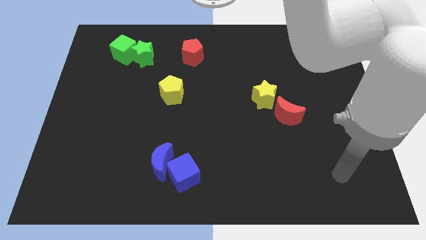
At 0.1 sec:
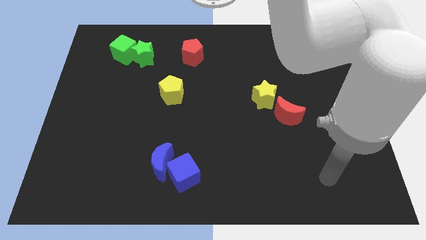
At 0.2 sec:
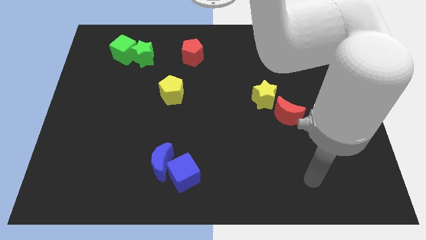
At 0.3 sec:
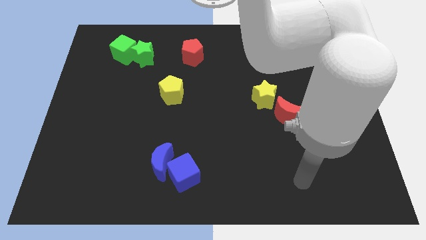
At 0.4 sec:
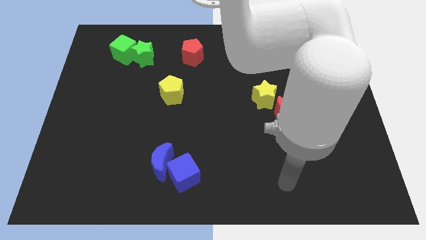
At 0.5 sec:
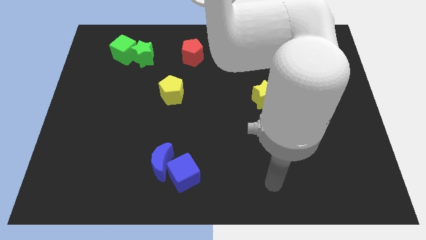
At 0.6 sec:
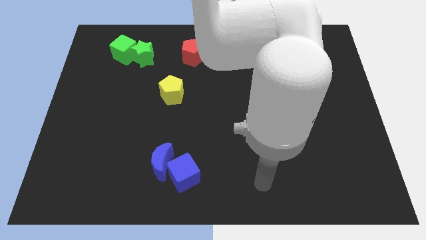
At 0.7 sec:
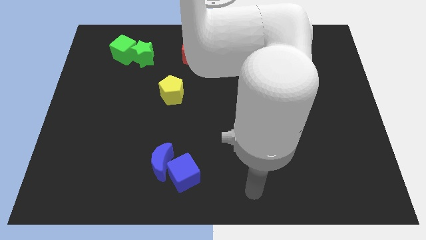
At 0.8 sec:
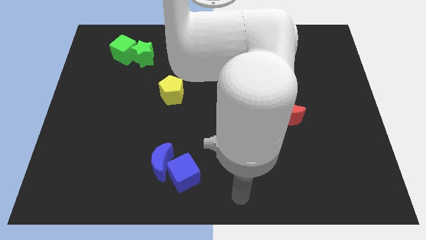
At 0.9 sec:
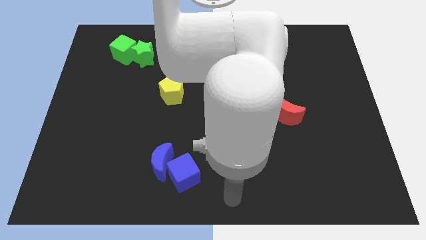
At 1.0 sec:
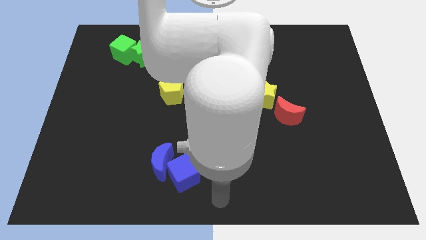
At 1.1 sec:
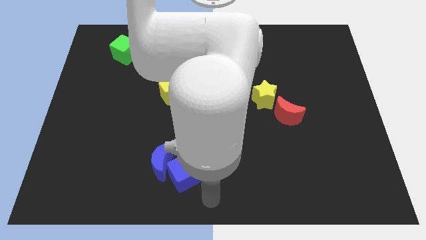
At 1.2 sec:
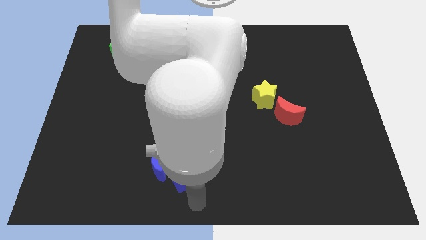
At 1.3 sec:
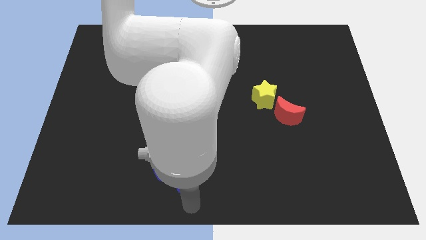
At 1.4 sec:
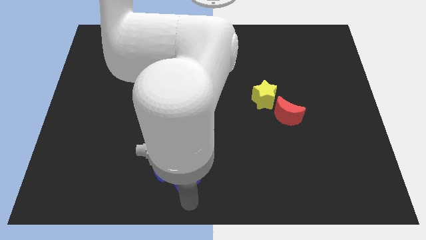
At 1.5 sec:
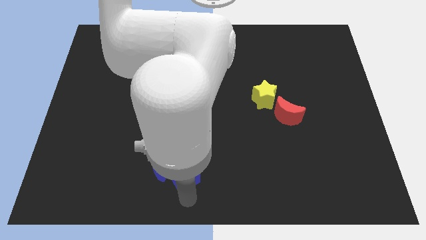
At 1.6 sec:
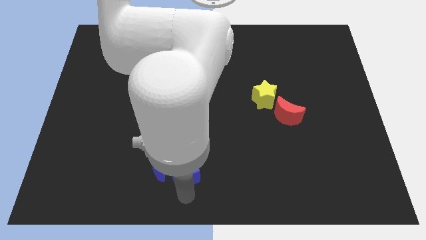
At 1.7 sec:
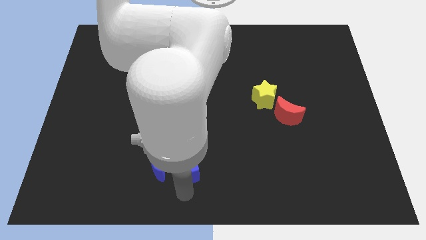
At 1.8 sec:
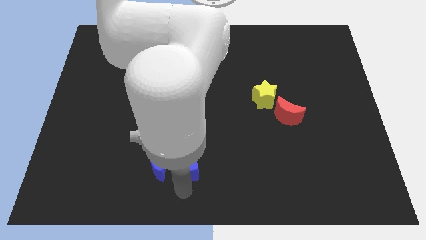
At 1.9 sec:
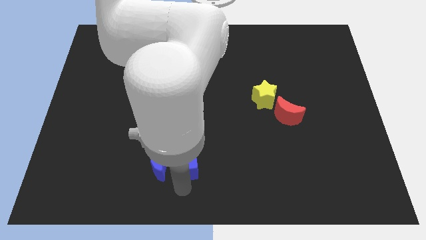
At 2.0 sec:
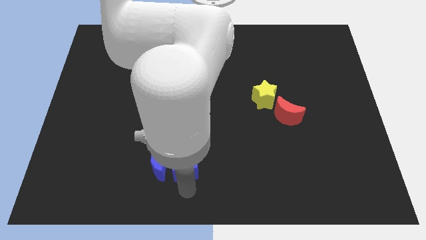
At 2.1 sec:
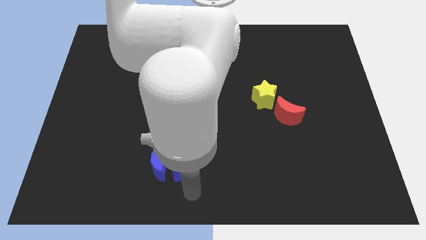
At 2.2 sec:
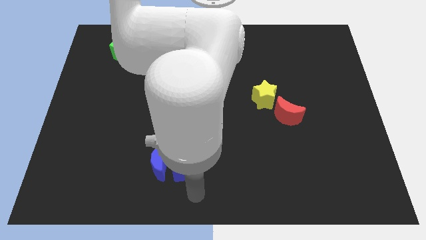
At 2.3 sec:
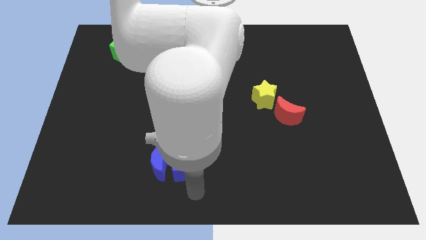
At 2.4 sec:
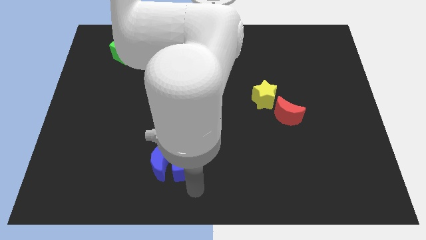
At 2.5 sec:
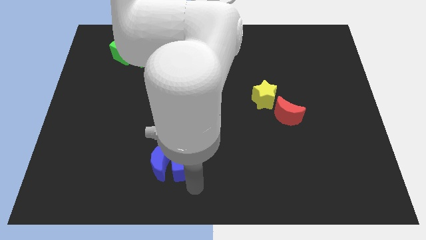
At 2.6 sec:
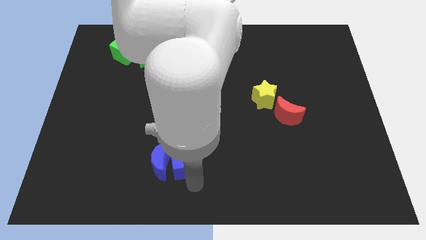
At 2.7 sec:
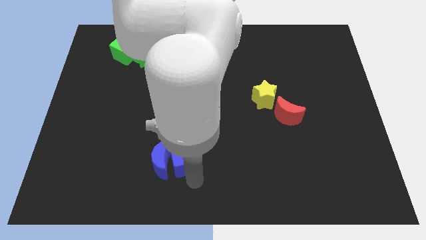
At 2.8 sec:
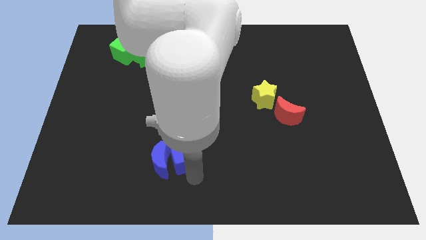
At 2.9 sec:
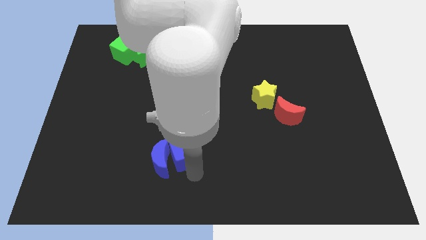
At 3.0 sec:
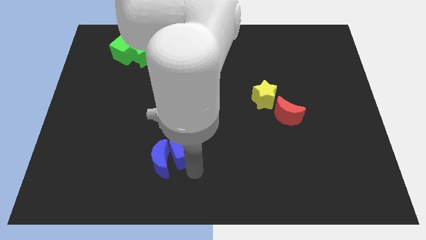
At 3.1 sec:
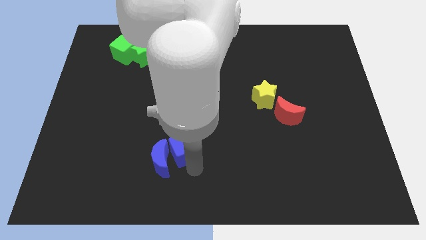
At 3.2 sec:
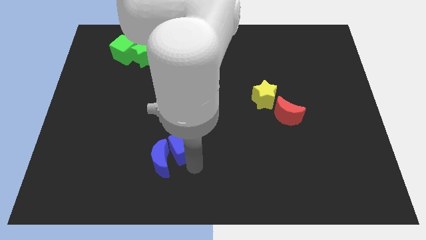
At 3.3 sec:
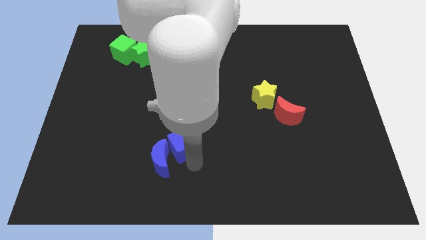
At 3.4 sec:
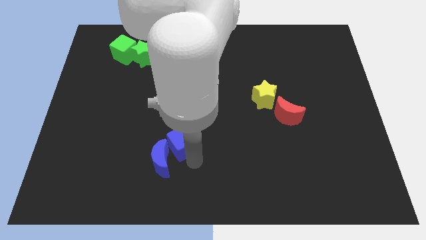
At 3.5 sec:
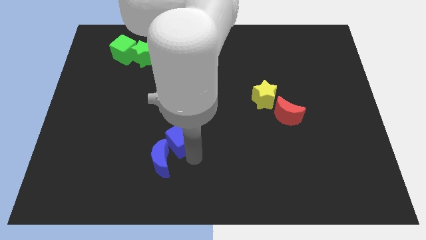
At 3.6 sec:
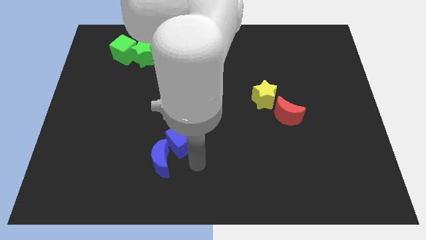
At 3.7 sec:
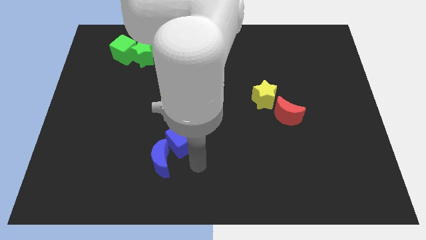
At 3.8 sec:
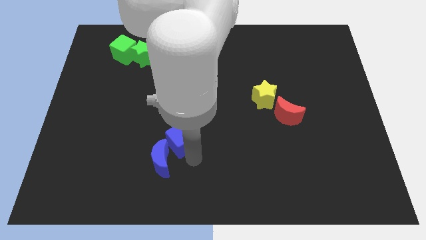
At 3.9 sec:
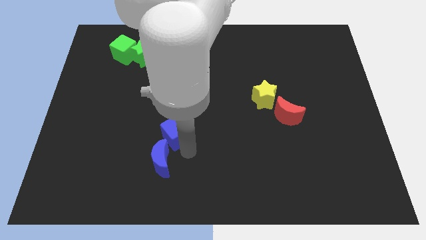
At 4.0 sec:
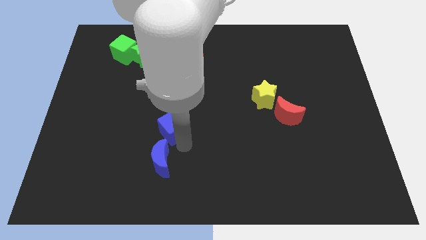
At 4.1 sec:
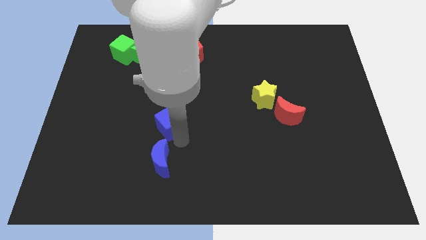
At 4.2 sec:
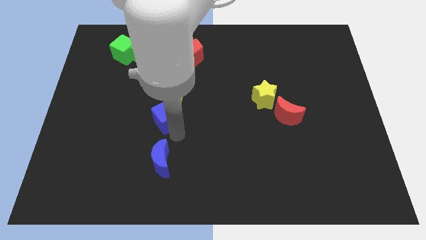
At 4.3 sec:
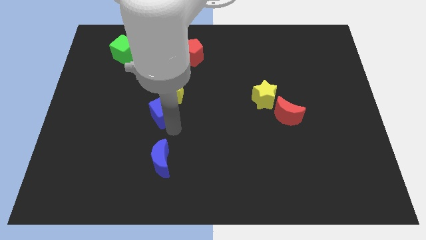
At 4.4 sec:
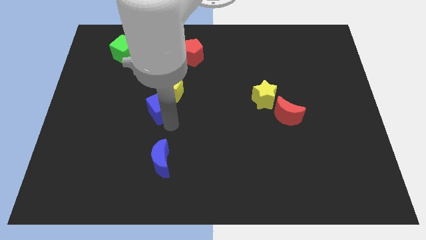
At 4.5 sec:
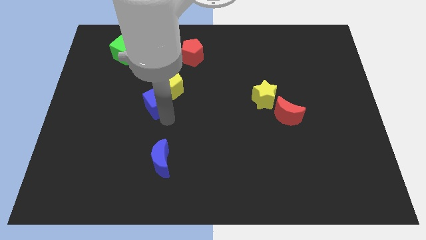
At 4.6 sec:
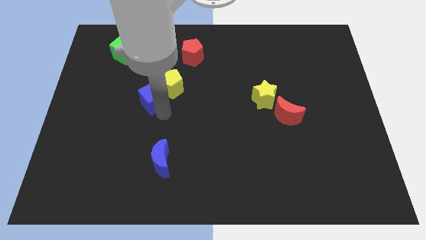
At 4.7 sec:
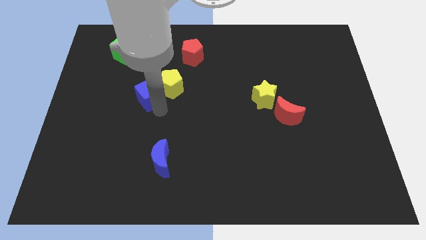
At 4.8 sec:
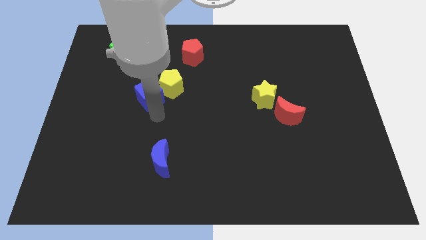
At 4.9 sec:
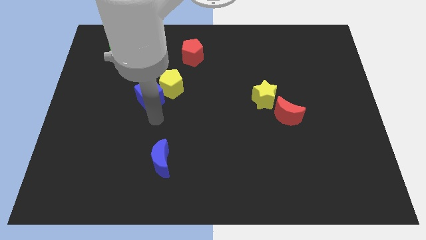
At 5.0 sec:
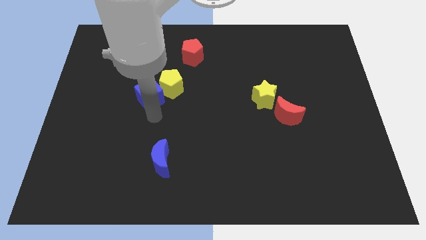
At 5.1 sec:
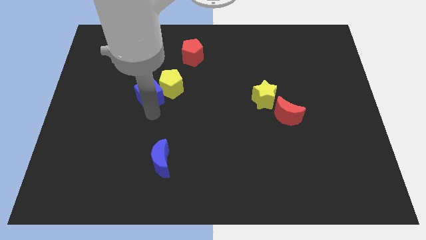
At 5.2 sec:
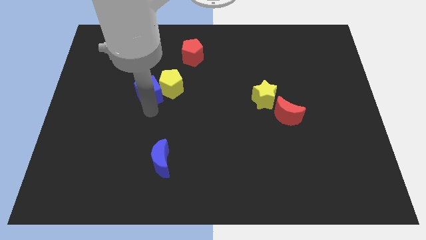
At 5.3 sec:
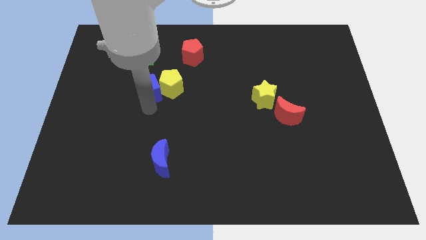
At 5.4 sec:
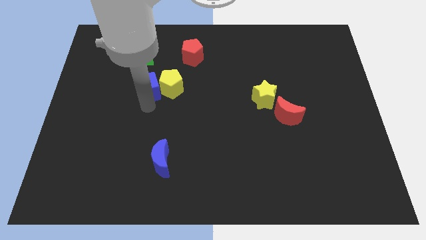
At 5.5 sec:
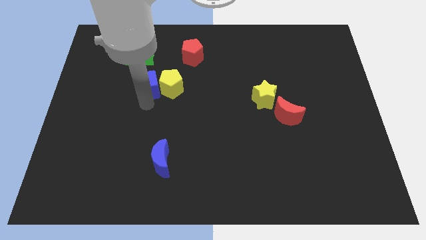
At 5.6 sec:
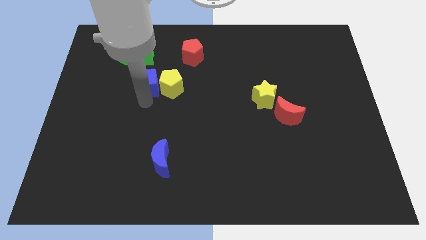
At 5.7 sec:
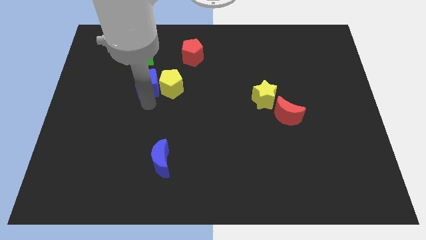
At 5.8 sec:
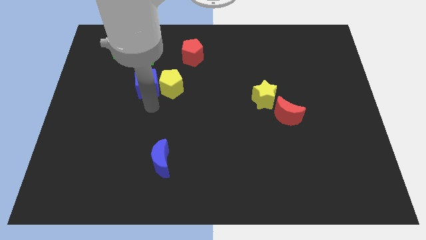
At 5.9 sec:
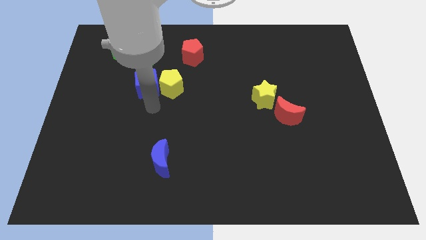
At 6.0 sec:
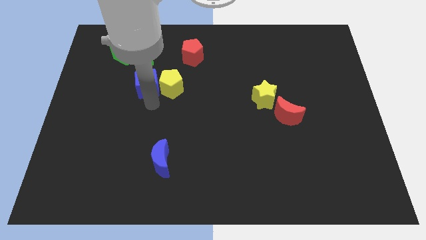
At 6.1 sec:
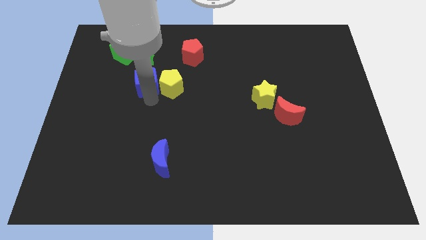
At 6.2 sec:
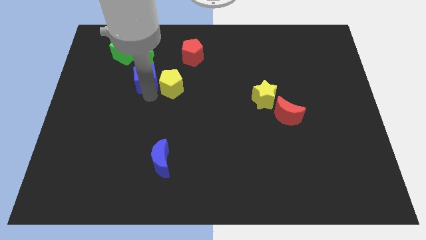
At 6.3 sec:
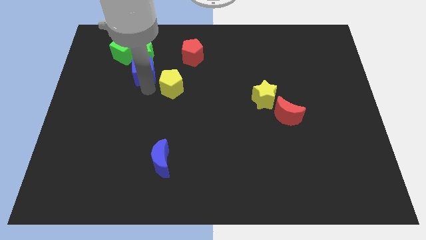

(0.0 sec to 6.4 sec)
slide the blue cube to the green star
